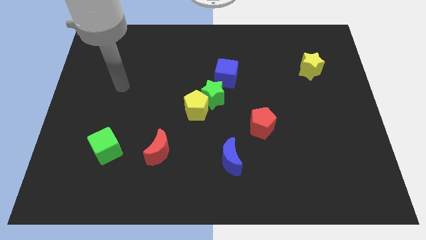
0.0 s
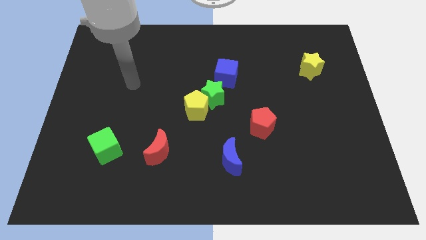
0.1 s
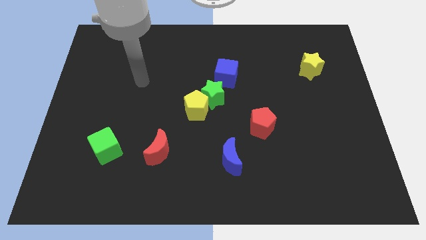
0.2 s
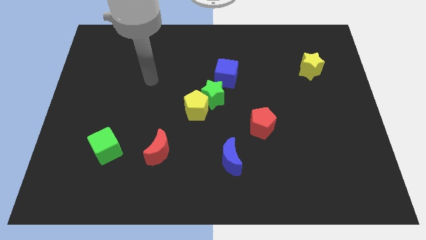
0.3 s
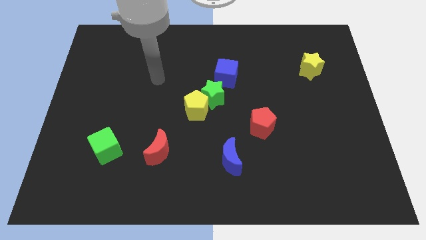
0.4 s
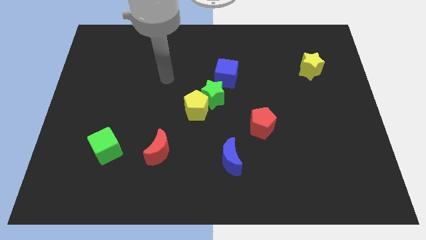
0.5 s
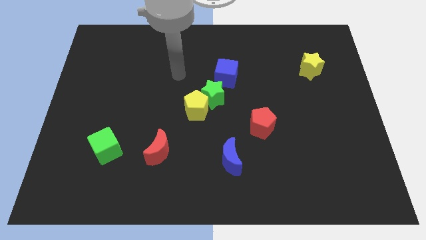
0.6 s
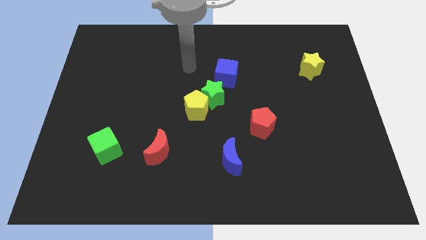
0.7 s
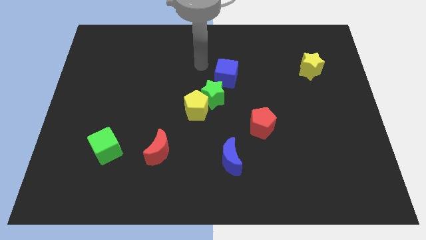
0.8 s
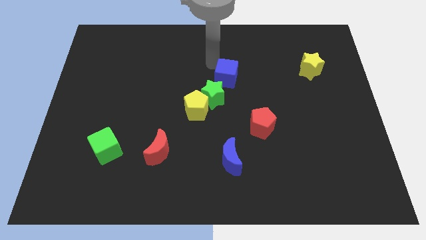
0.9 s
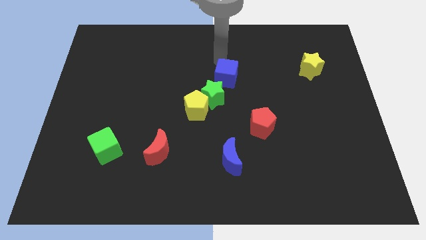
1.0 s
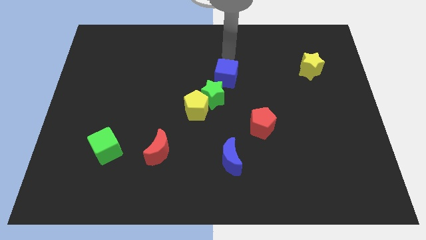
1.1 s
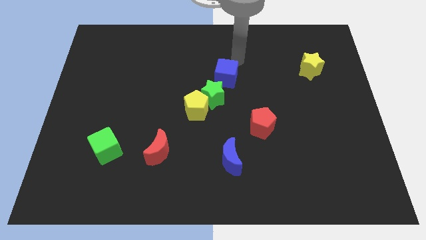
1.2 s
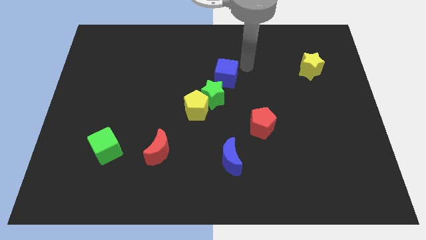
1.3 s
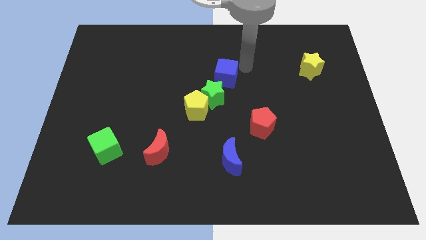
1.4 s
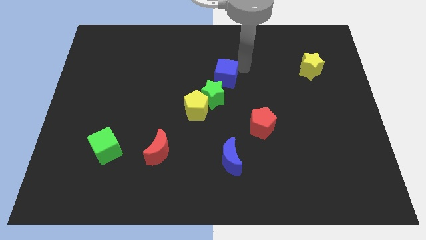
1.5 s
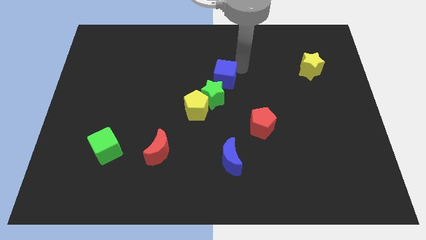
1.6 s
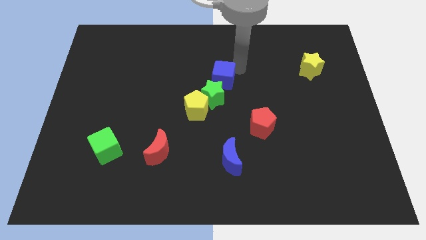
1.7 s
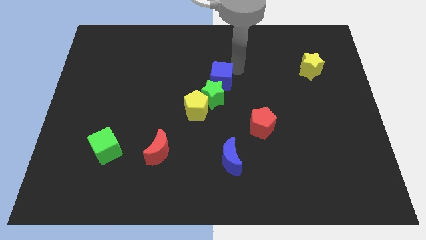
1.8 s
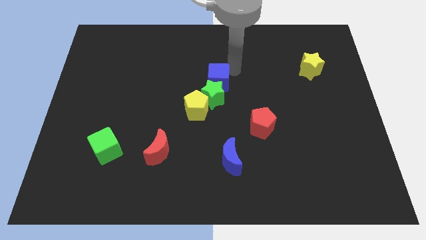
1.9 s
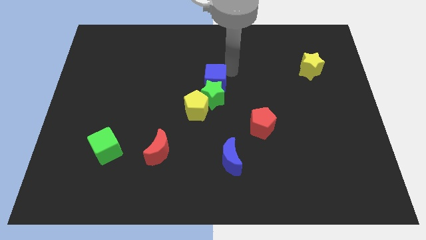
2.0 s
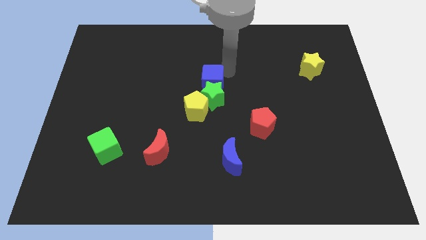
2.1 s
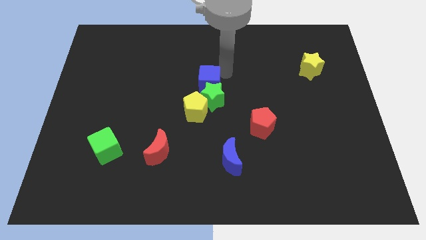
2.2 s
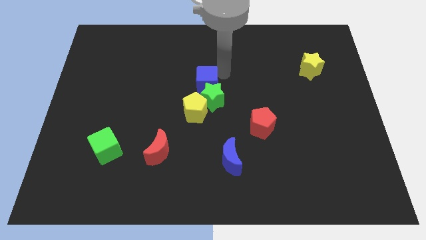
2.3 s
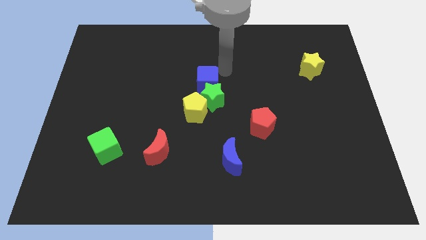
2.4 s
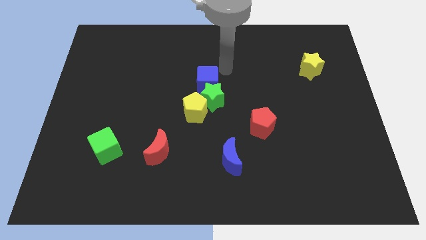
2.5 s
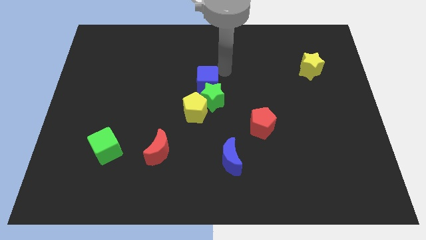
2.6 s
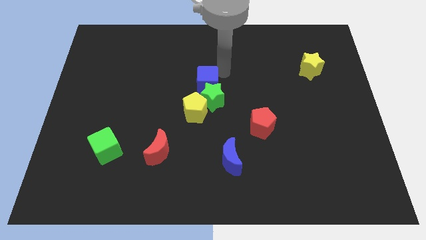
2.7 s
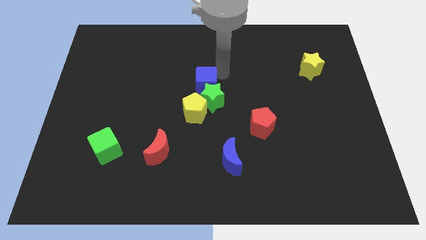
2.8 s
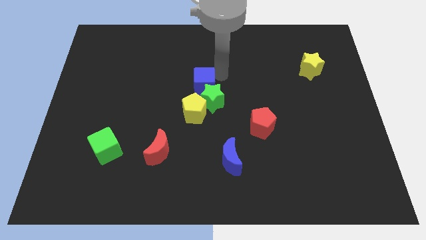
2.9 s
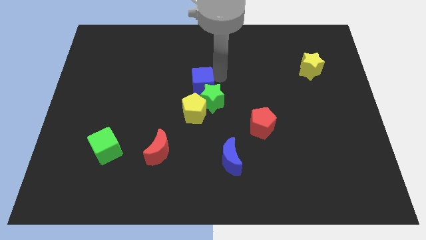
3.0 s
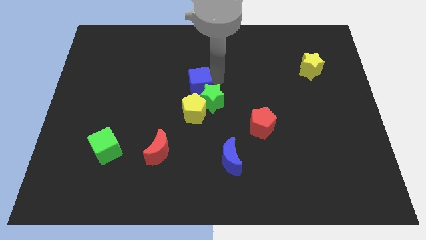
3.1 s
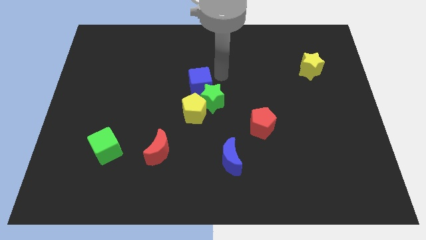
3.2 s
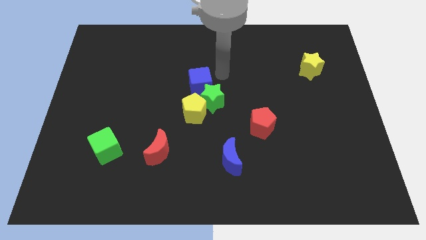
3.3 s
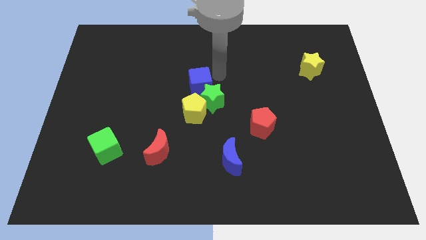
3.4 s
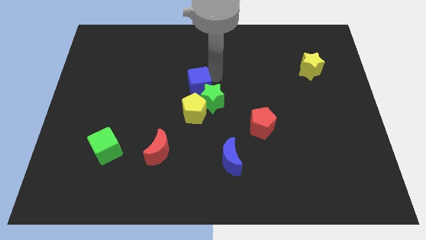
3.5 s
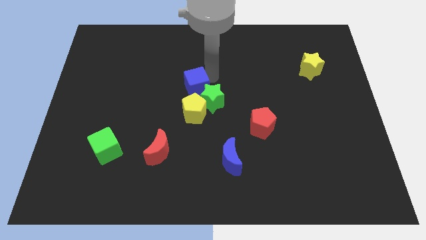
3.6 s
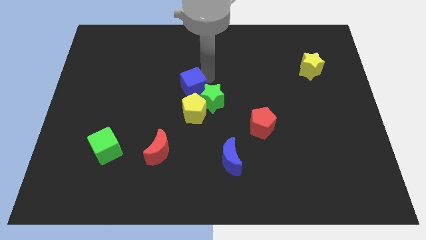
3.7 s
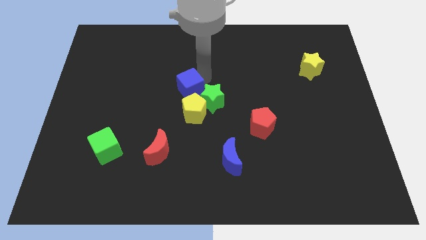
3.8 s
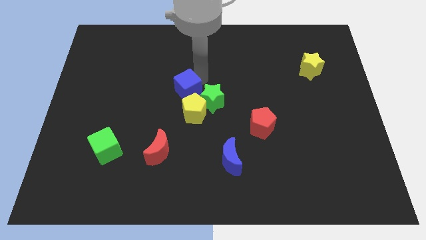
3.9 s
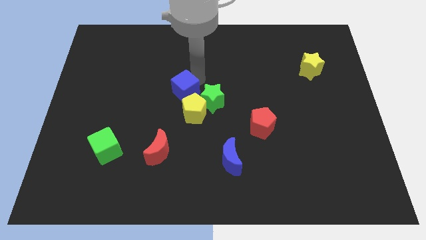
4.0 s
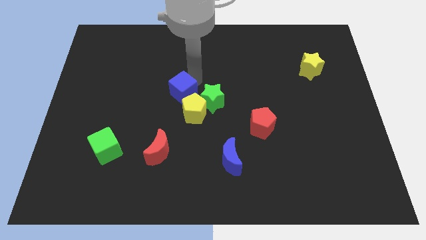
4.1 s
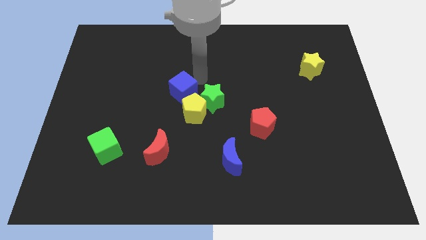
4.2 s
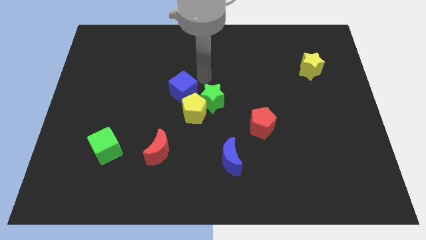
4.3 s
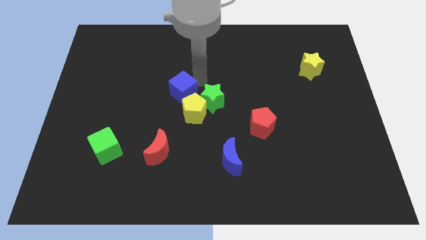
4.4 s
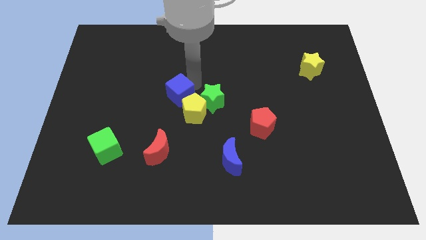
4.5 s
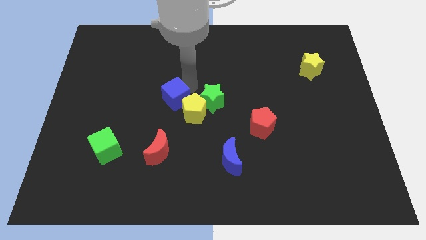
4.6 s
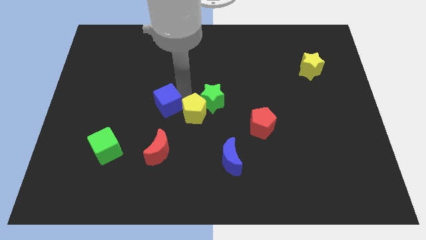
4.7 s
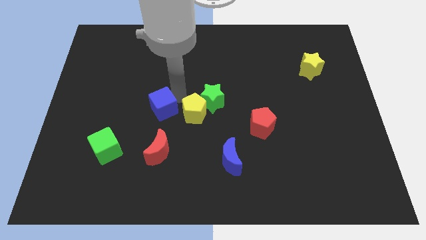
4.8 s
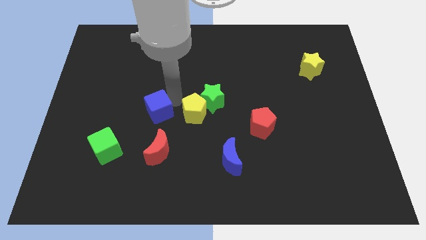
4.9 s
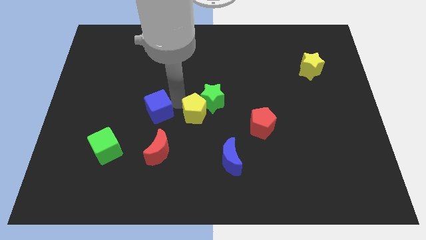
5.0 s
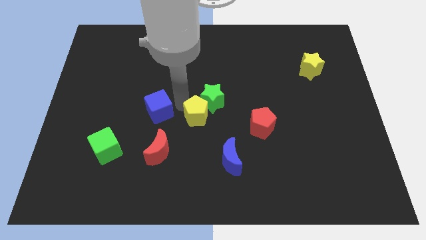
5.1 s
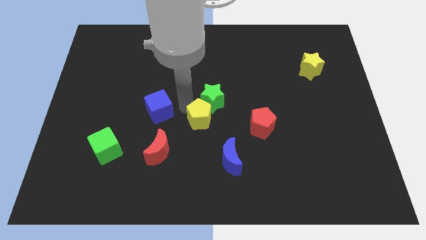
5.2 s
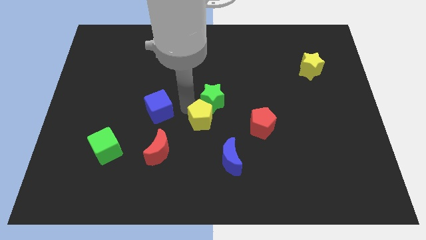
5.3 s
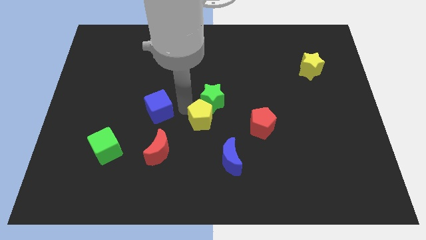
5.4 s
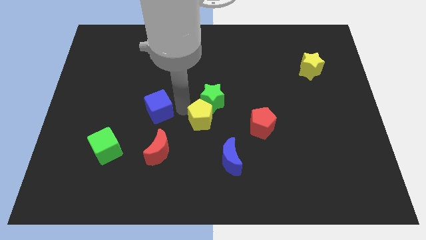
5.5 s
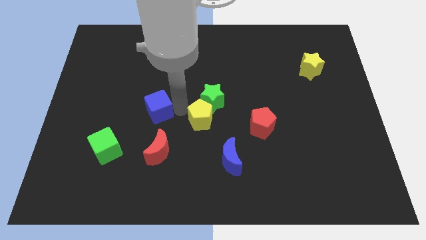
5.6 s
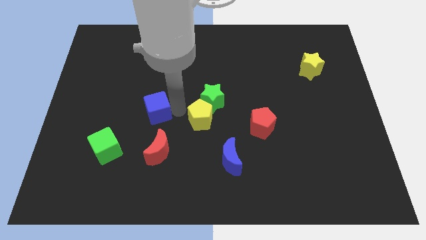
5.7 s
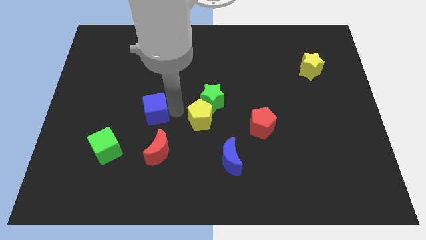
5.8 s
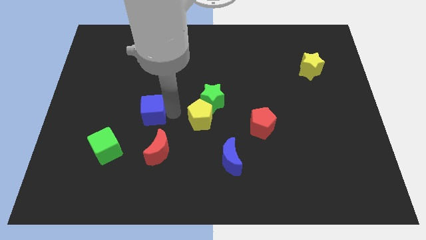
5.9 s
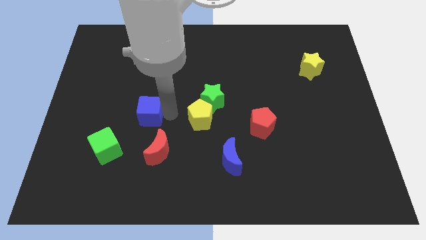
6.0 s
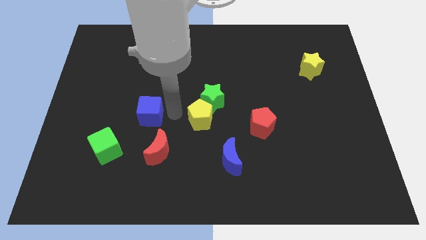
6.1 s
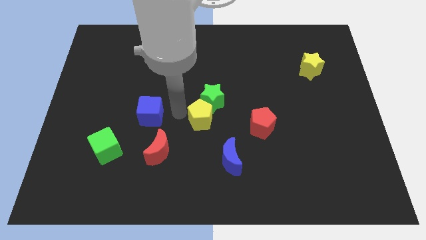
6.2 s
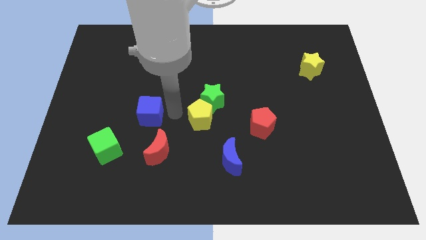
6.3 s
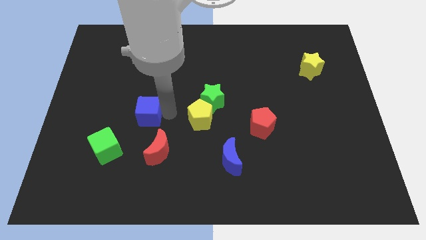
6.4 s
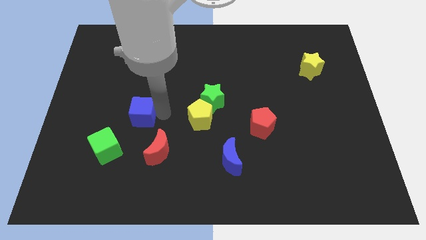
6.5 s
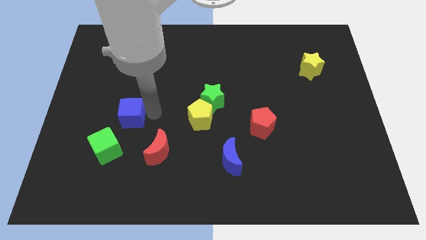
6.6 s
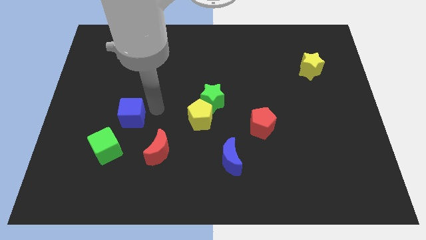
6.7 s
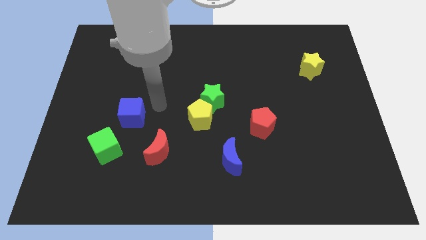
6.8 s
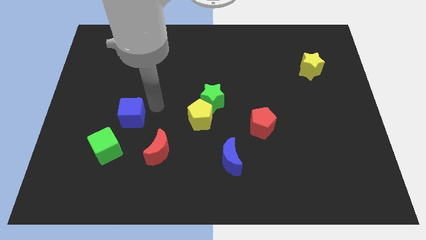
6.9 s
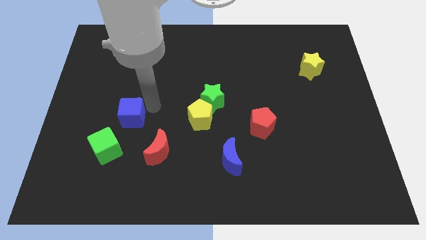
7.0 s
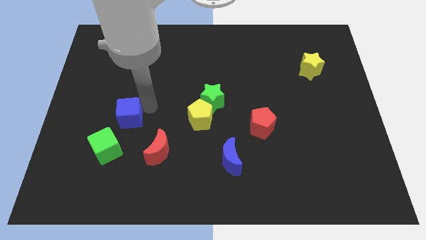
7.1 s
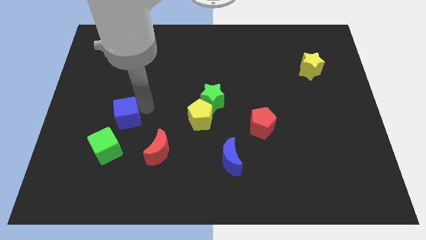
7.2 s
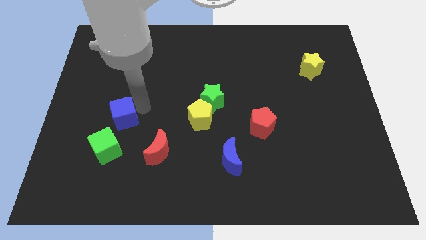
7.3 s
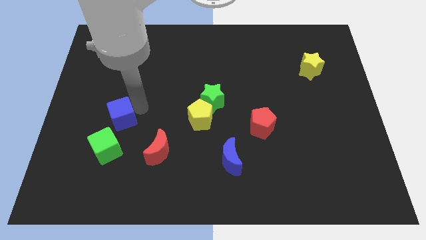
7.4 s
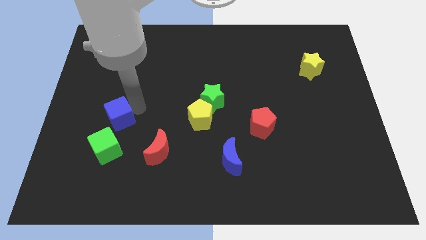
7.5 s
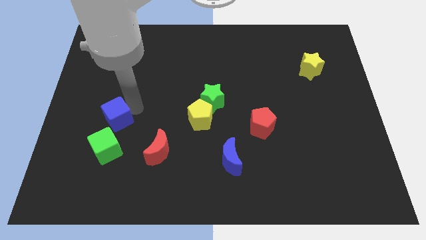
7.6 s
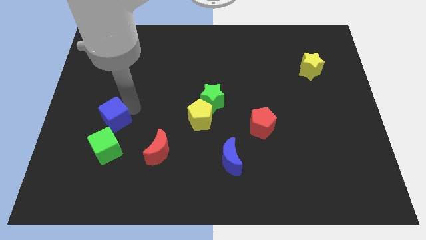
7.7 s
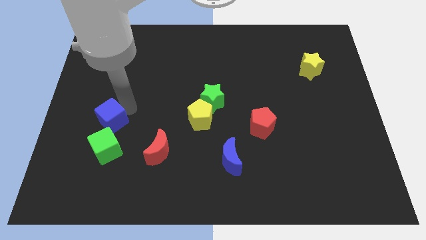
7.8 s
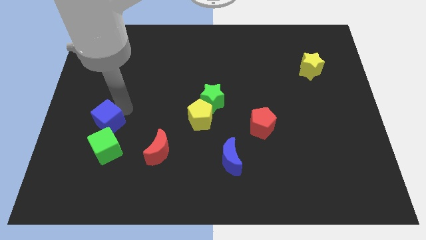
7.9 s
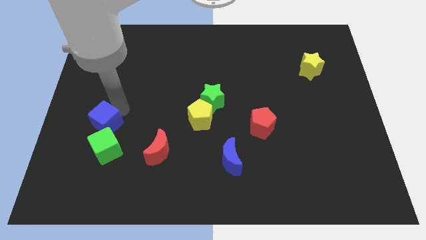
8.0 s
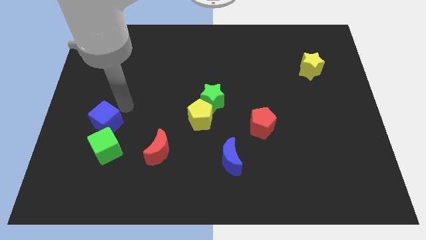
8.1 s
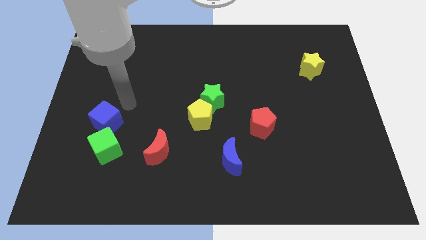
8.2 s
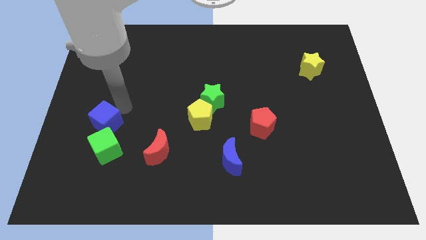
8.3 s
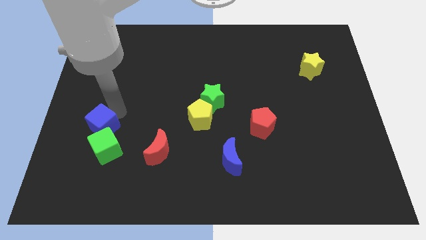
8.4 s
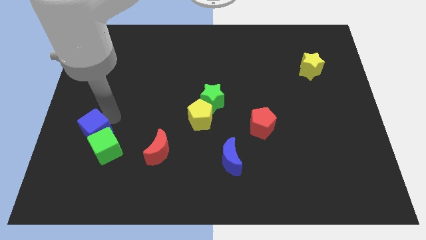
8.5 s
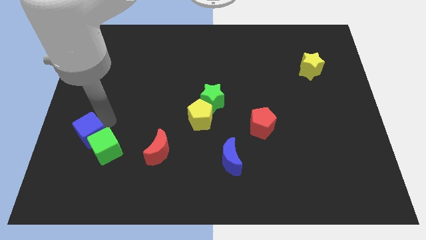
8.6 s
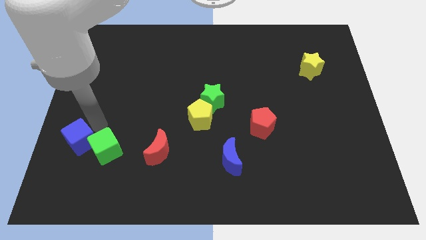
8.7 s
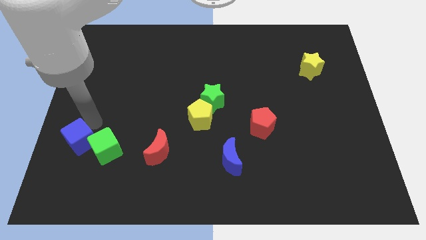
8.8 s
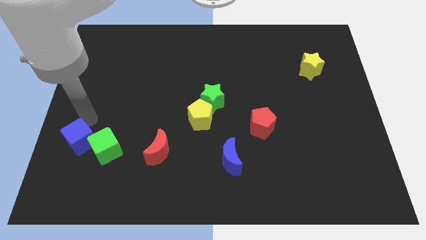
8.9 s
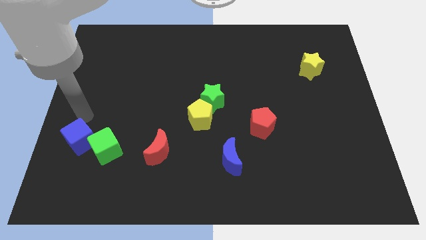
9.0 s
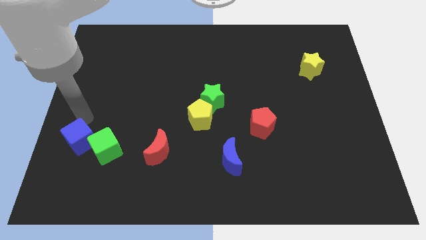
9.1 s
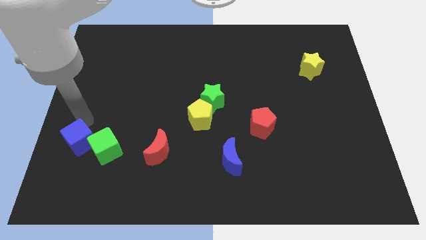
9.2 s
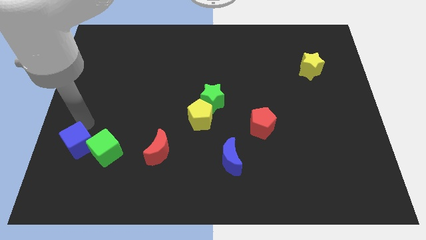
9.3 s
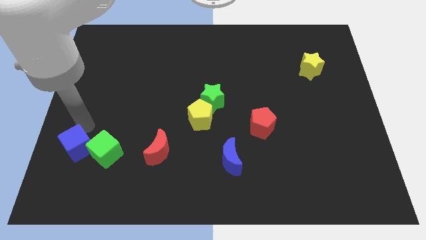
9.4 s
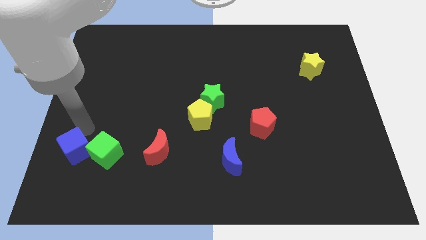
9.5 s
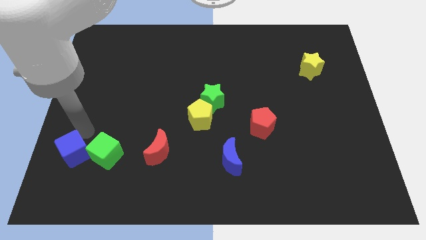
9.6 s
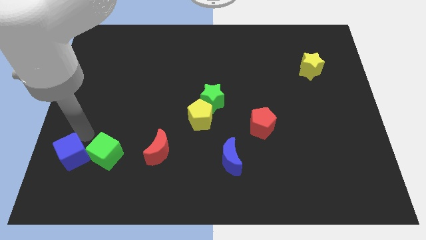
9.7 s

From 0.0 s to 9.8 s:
push the blue cube diagonally down and to the left of the green cube
